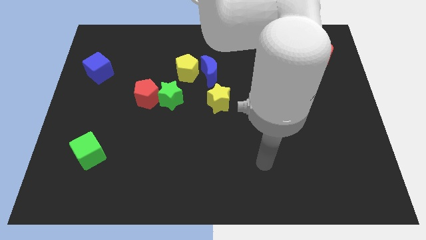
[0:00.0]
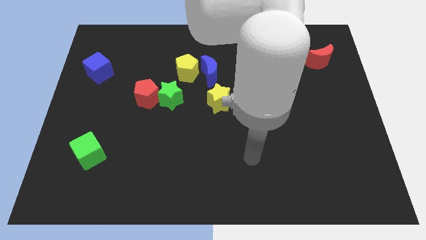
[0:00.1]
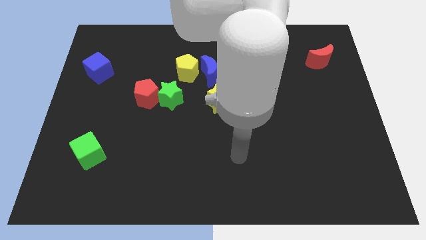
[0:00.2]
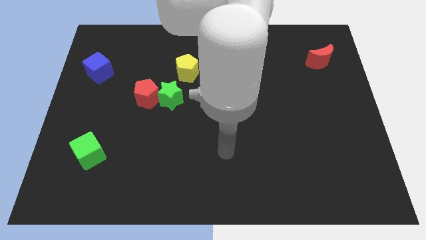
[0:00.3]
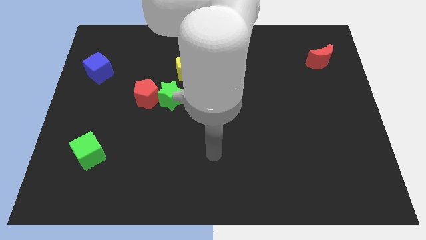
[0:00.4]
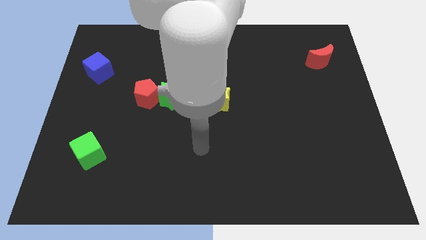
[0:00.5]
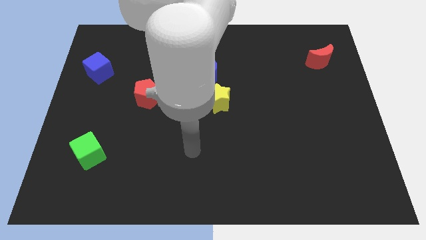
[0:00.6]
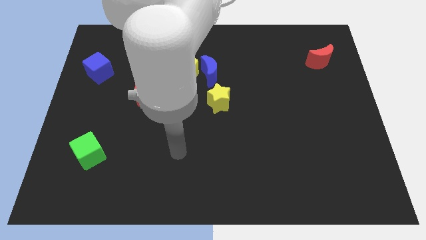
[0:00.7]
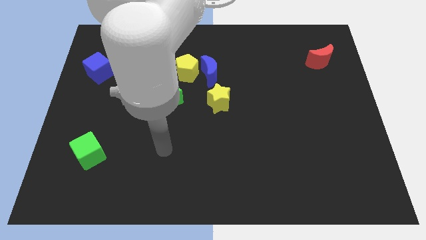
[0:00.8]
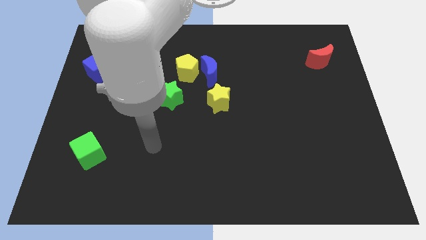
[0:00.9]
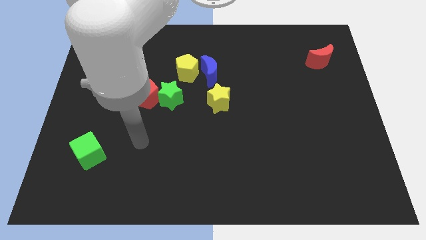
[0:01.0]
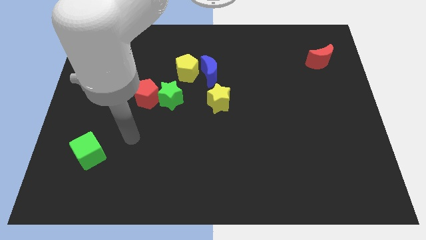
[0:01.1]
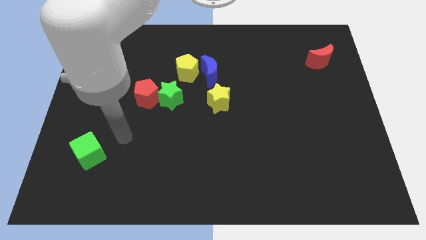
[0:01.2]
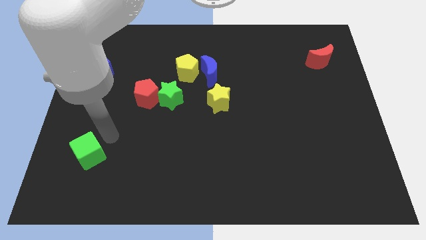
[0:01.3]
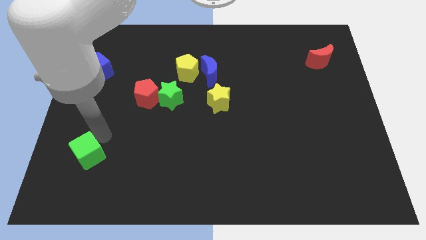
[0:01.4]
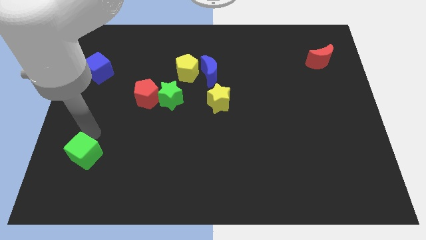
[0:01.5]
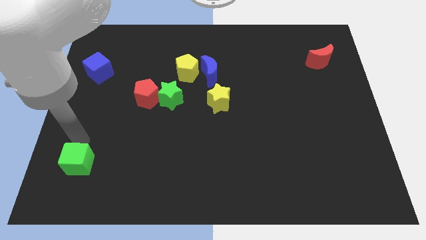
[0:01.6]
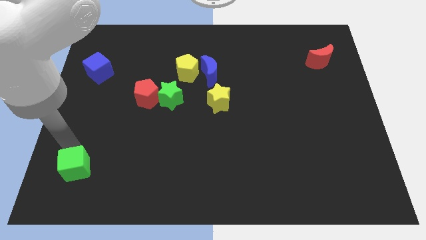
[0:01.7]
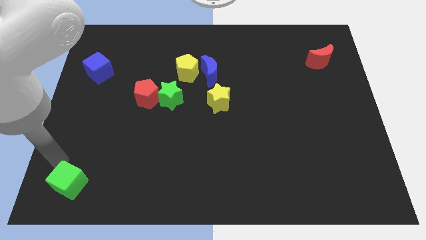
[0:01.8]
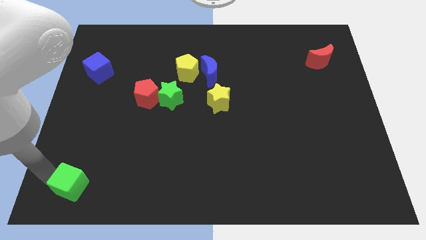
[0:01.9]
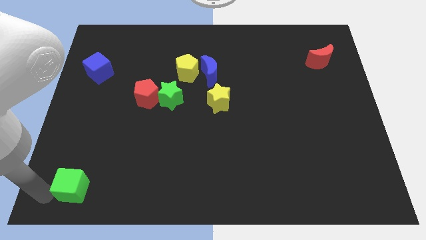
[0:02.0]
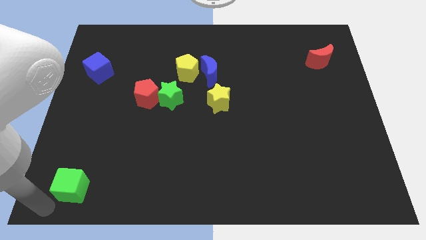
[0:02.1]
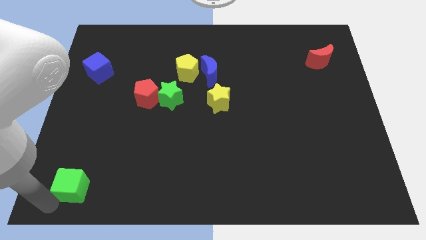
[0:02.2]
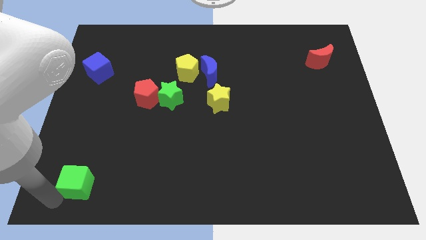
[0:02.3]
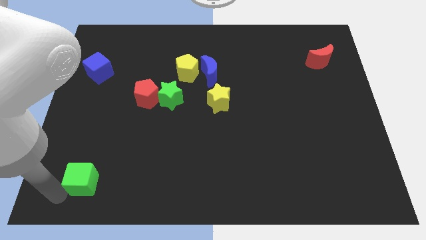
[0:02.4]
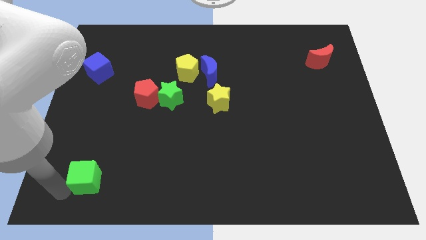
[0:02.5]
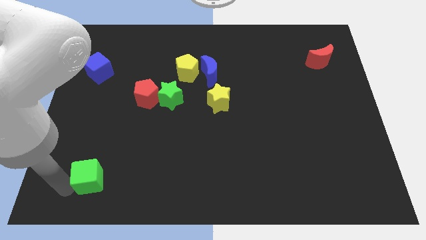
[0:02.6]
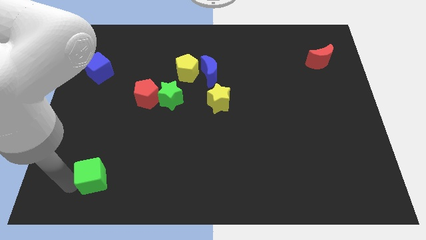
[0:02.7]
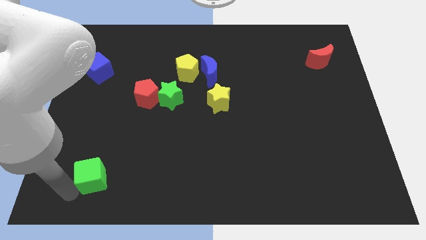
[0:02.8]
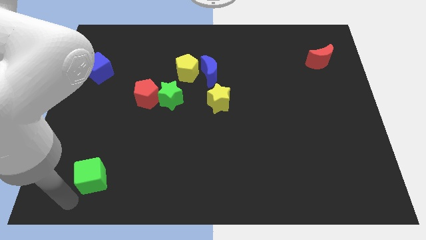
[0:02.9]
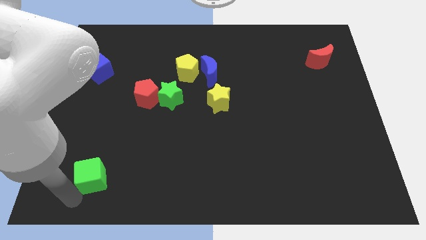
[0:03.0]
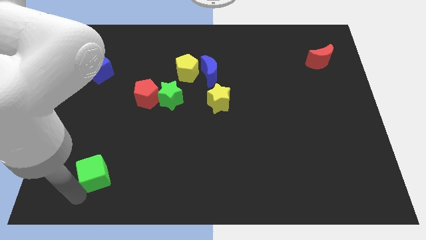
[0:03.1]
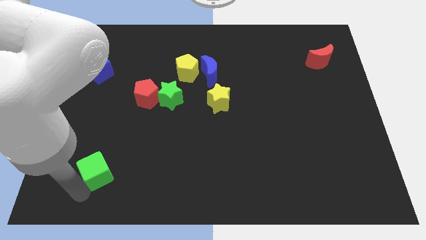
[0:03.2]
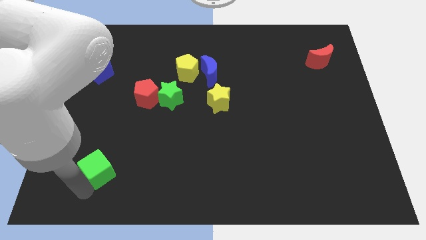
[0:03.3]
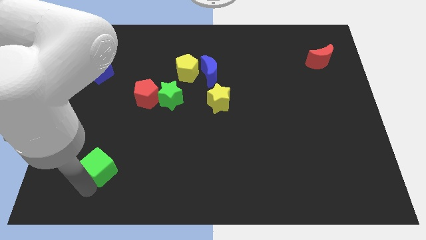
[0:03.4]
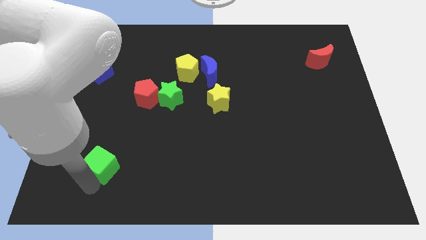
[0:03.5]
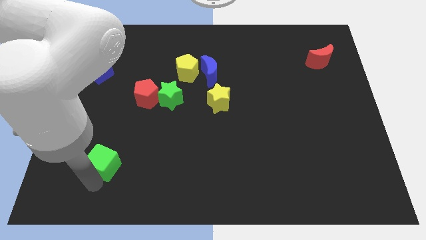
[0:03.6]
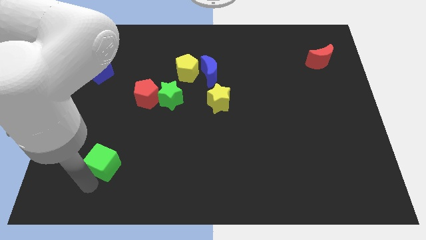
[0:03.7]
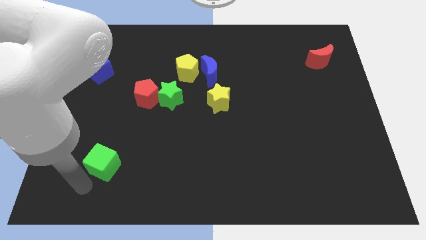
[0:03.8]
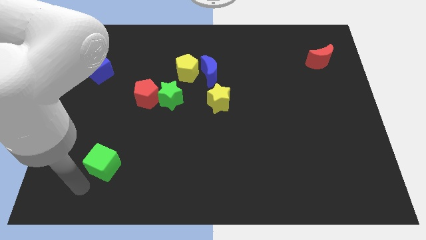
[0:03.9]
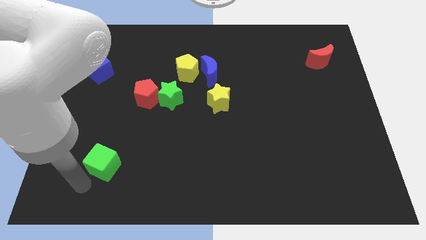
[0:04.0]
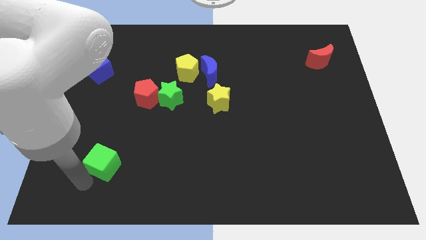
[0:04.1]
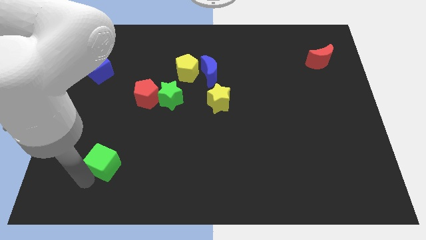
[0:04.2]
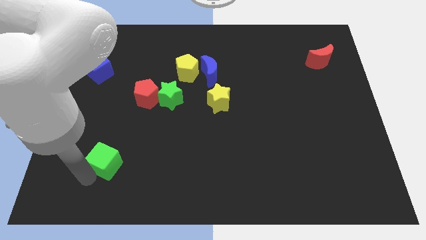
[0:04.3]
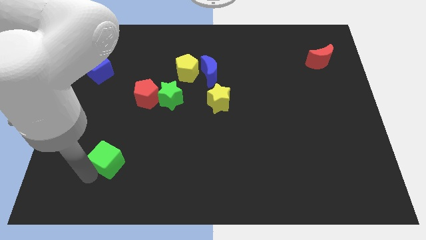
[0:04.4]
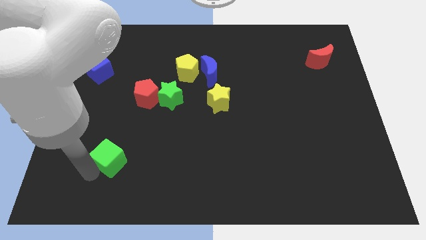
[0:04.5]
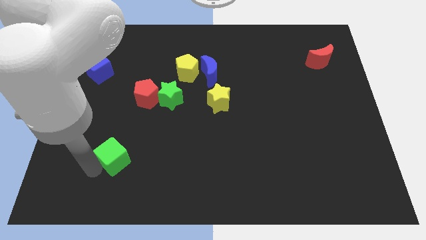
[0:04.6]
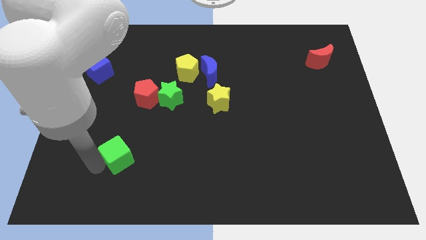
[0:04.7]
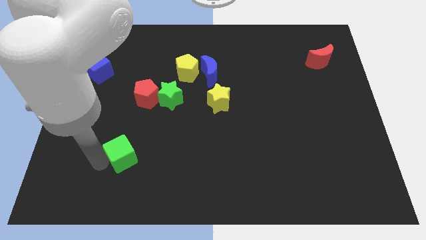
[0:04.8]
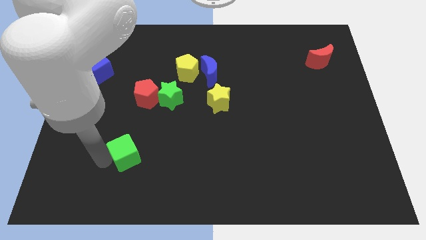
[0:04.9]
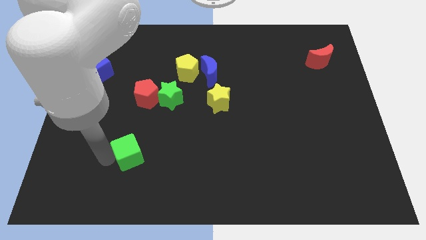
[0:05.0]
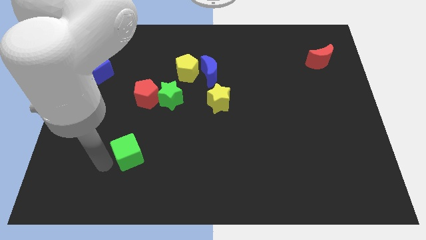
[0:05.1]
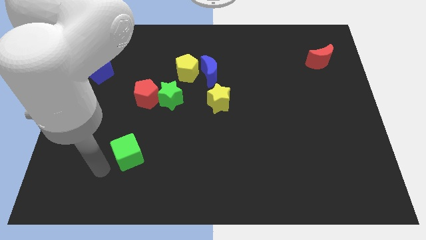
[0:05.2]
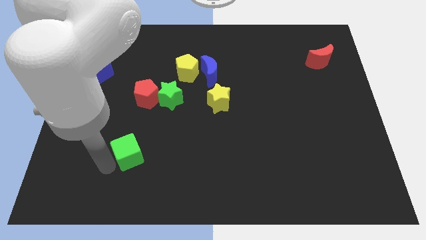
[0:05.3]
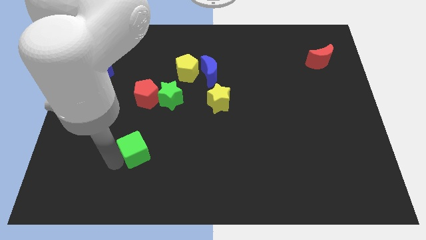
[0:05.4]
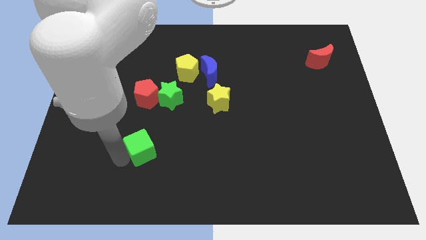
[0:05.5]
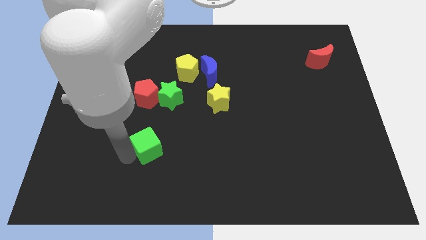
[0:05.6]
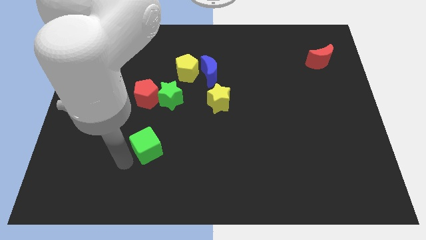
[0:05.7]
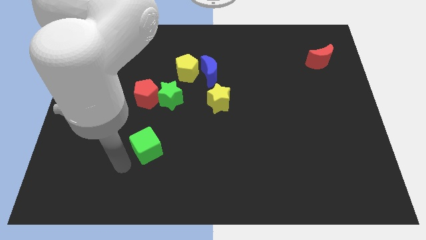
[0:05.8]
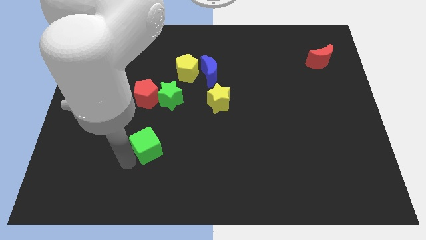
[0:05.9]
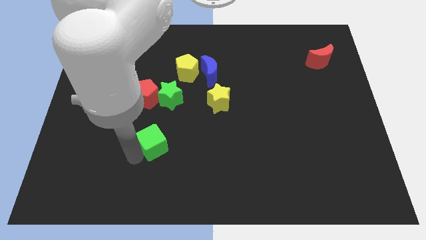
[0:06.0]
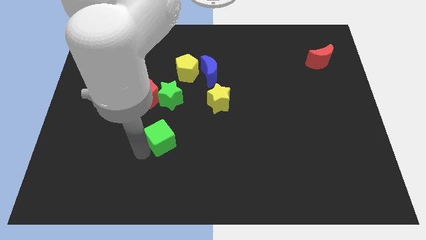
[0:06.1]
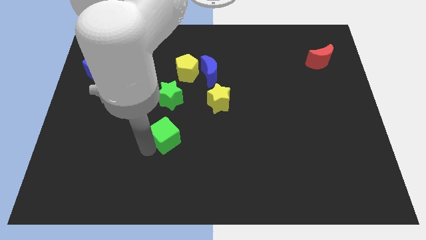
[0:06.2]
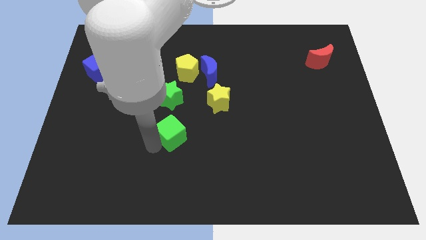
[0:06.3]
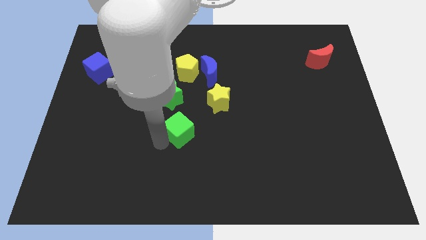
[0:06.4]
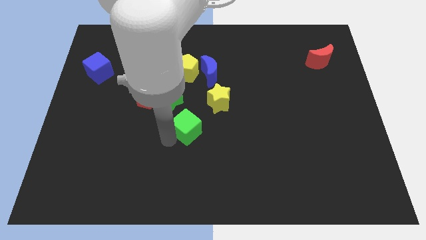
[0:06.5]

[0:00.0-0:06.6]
put the green cube to the bottom right of the green star
